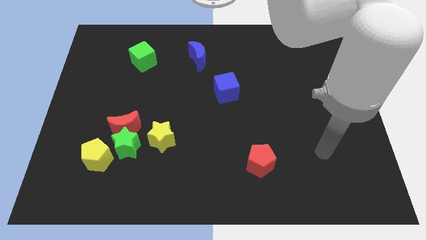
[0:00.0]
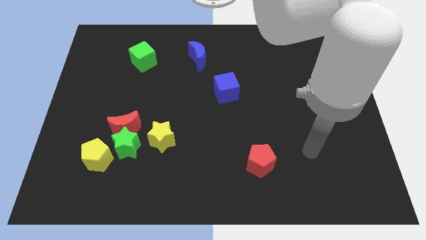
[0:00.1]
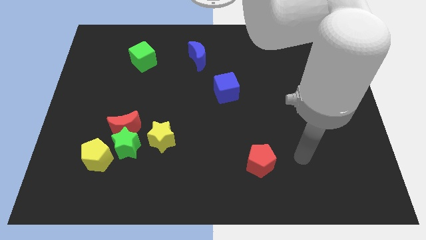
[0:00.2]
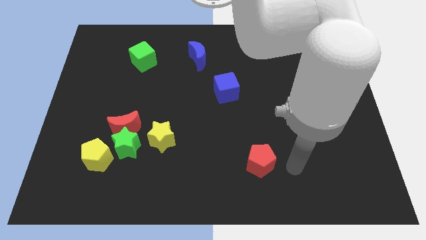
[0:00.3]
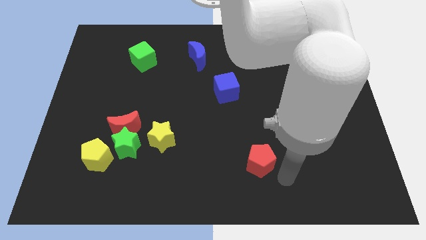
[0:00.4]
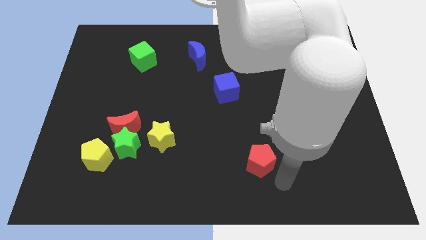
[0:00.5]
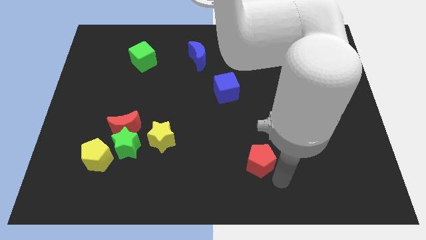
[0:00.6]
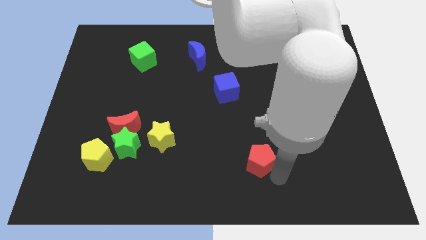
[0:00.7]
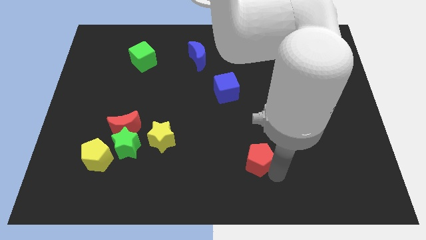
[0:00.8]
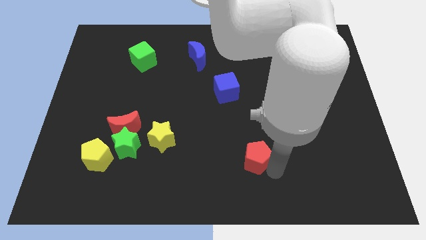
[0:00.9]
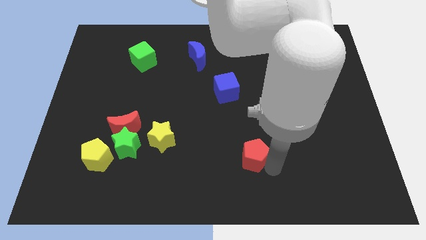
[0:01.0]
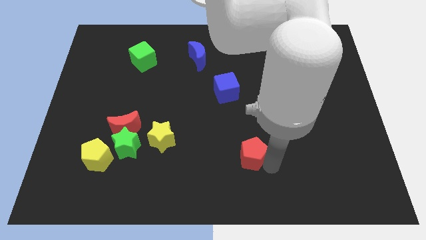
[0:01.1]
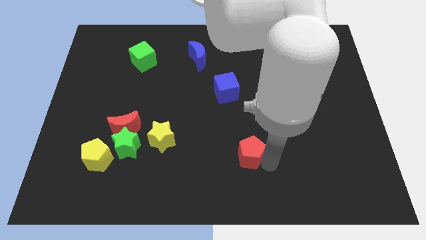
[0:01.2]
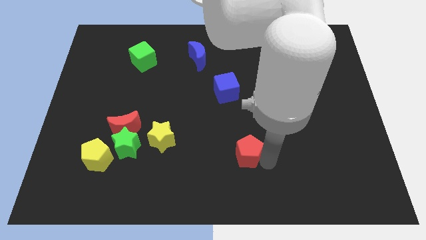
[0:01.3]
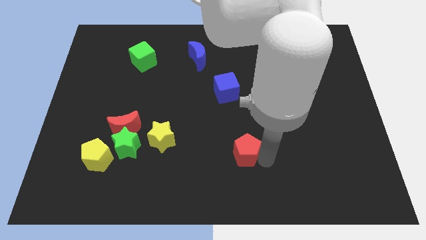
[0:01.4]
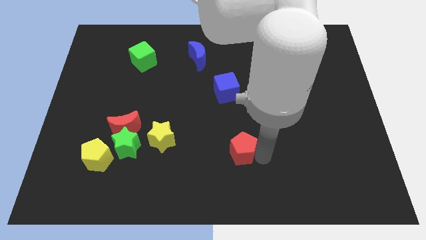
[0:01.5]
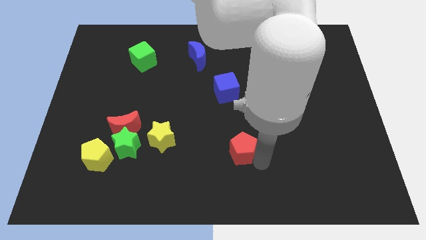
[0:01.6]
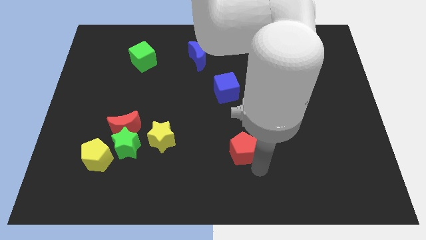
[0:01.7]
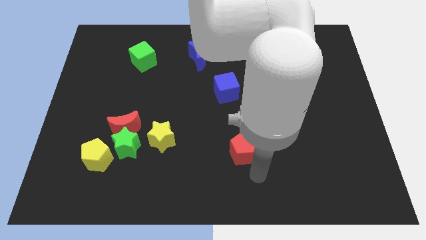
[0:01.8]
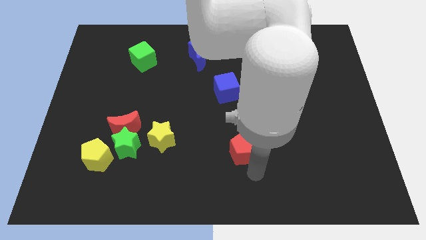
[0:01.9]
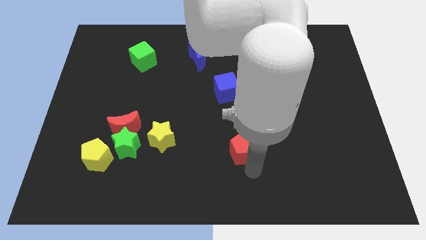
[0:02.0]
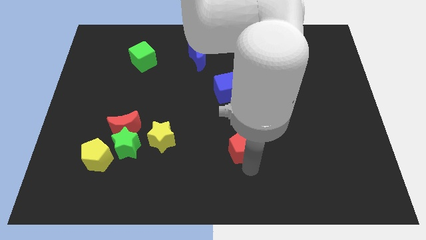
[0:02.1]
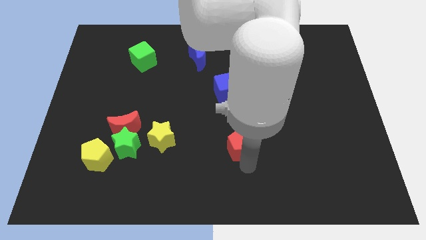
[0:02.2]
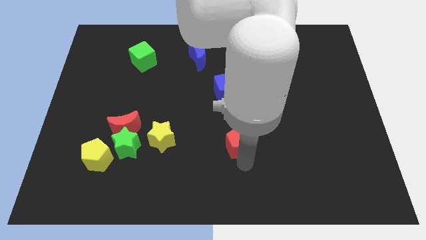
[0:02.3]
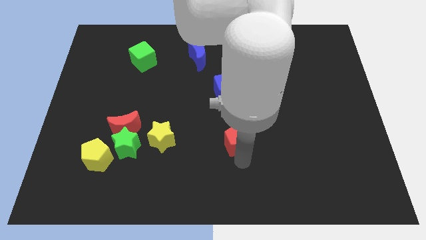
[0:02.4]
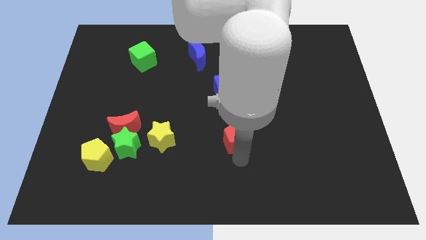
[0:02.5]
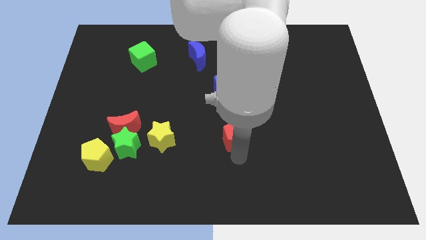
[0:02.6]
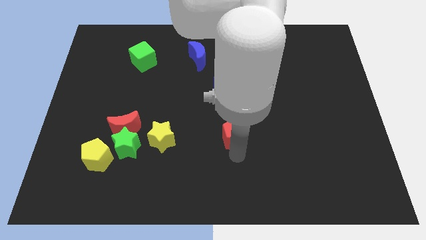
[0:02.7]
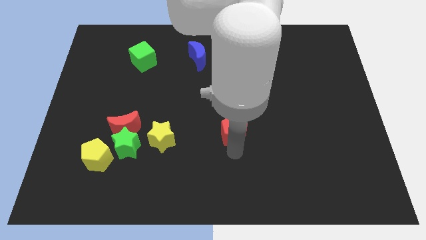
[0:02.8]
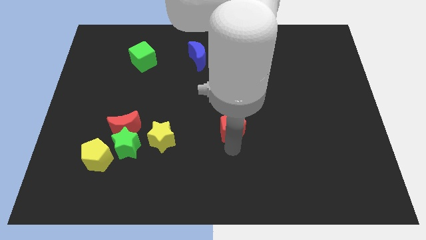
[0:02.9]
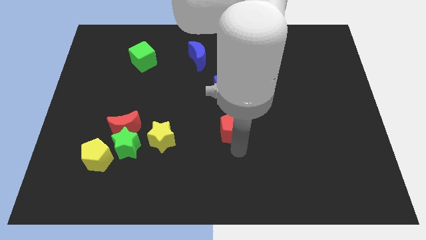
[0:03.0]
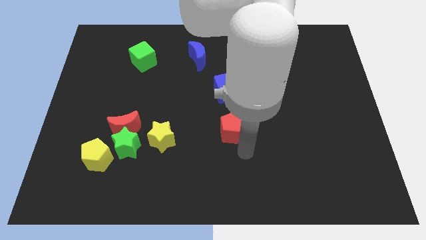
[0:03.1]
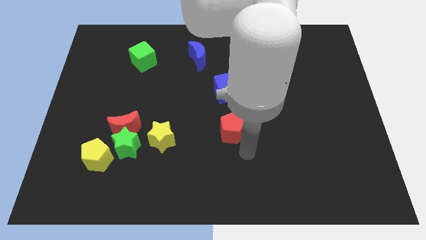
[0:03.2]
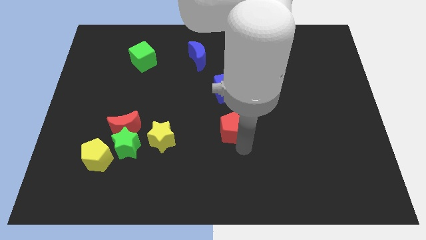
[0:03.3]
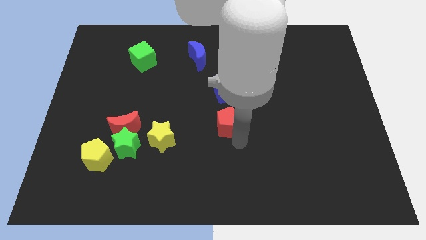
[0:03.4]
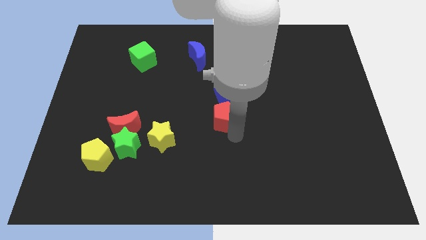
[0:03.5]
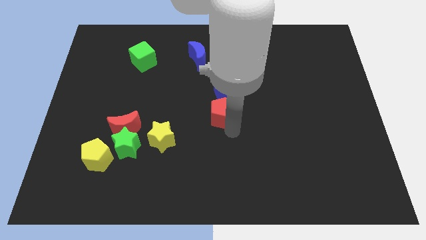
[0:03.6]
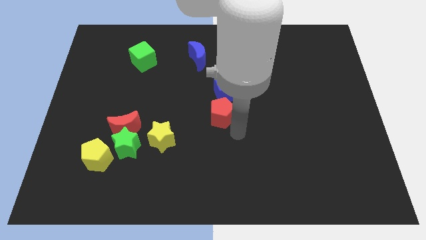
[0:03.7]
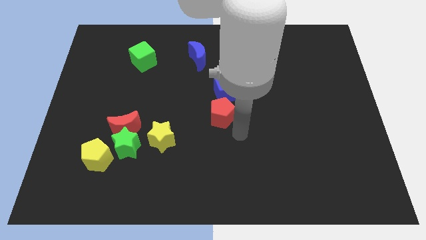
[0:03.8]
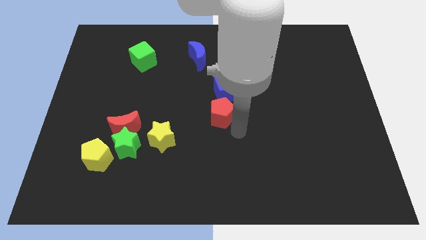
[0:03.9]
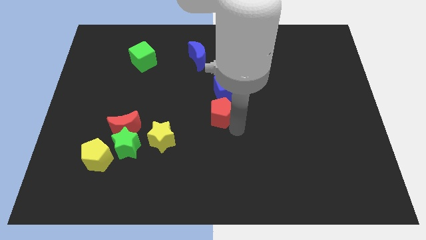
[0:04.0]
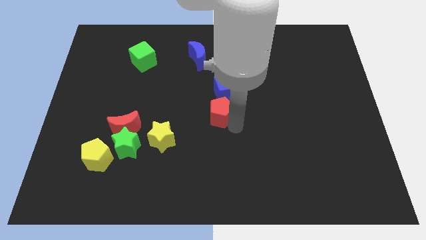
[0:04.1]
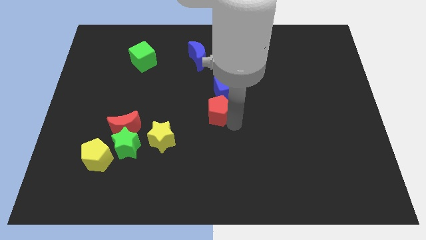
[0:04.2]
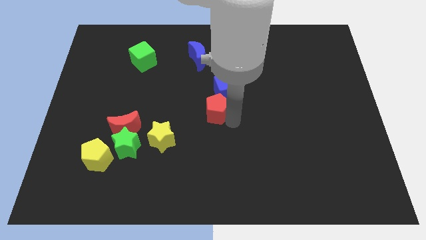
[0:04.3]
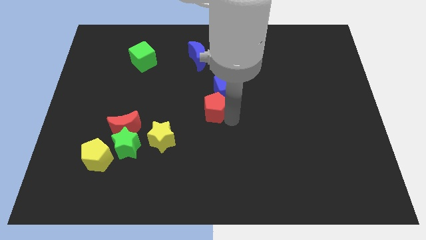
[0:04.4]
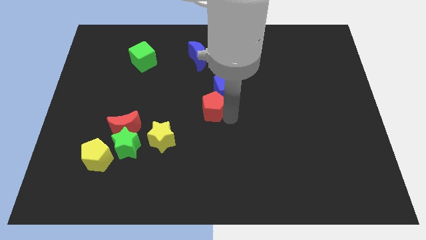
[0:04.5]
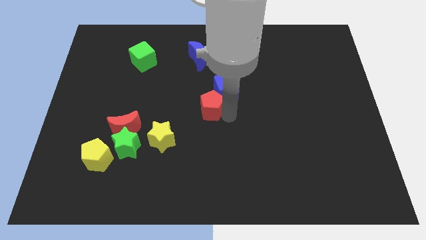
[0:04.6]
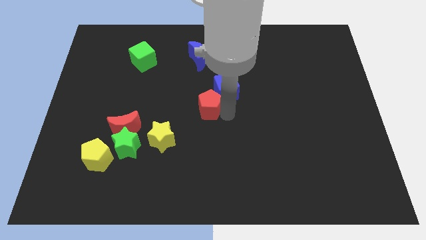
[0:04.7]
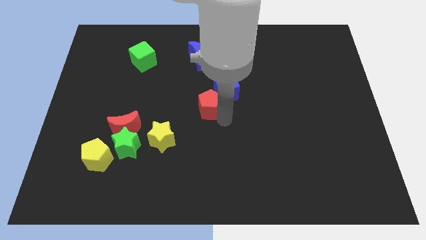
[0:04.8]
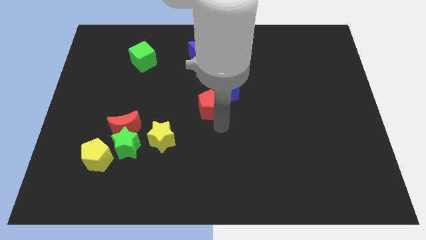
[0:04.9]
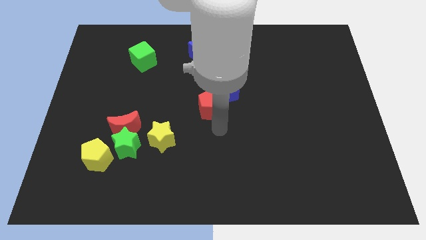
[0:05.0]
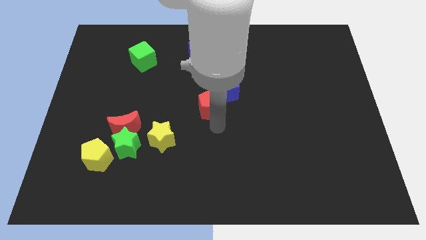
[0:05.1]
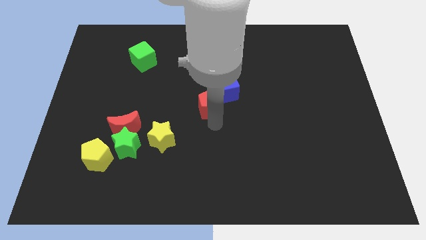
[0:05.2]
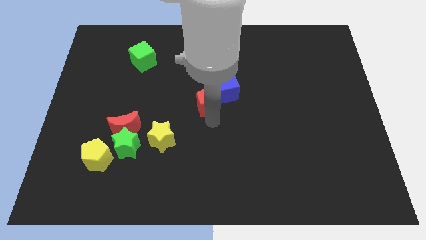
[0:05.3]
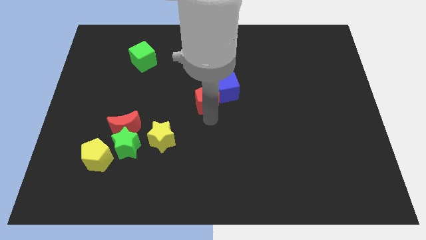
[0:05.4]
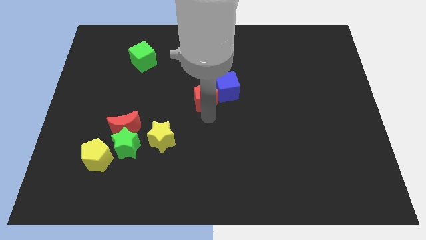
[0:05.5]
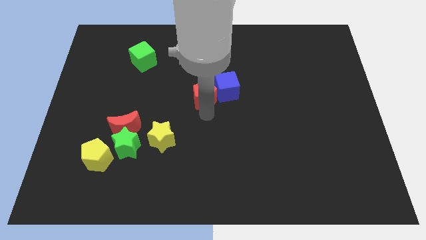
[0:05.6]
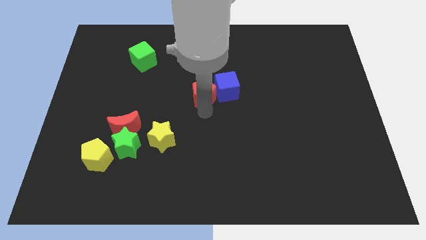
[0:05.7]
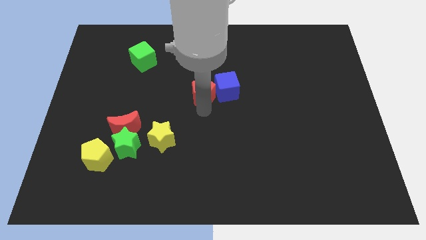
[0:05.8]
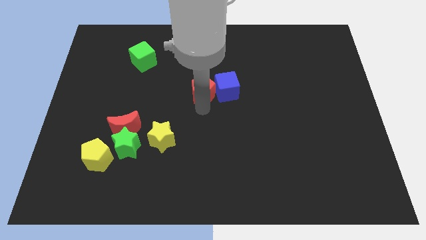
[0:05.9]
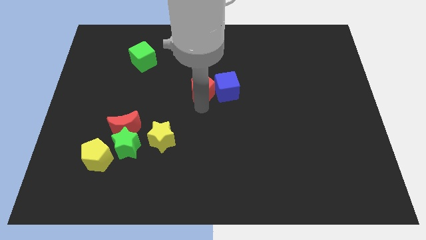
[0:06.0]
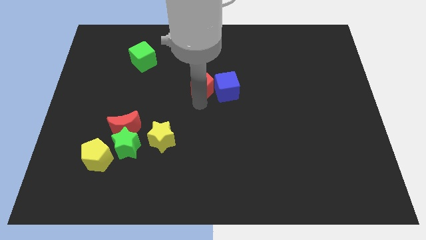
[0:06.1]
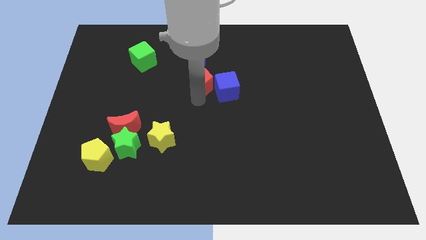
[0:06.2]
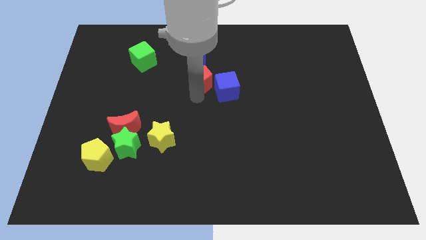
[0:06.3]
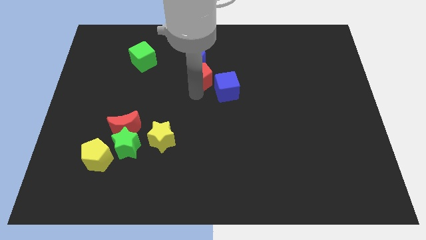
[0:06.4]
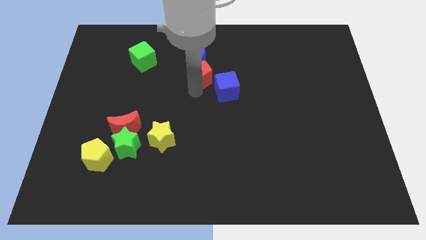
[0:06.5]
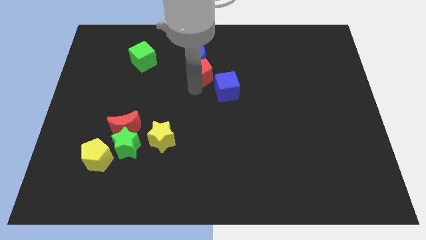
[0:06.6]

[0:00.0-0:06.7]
push the red pentagon next to the blue moon
